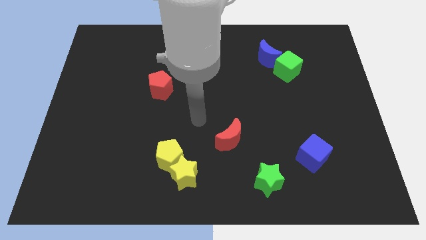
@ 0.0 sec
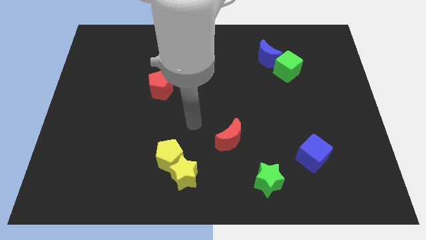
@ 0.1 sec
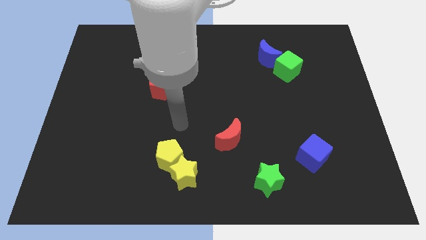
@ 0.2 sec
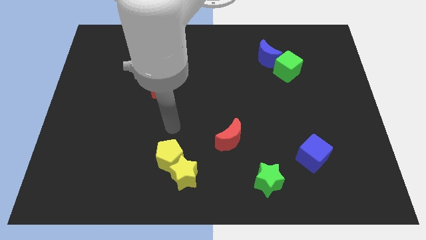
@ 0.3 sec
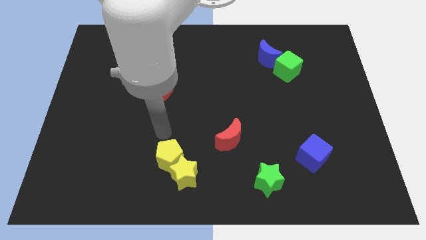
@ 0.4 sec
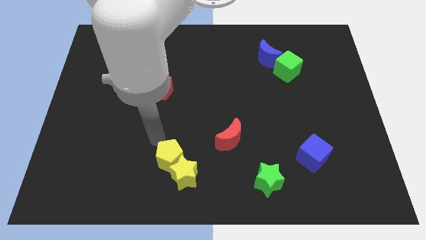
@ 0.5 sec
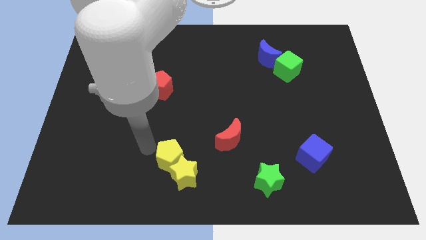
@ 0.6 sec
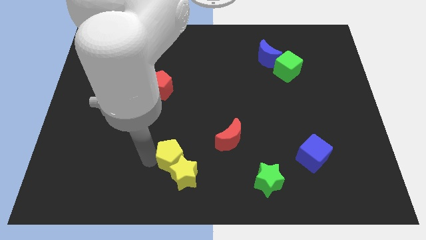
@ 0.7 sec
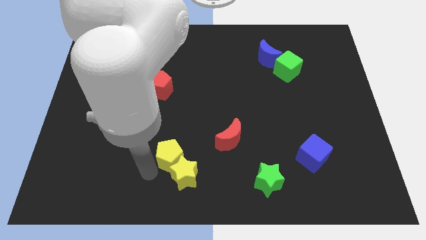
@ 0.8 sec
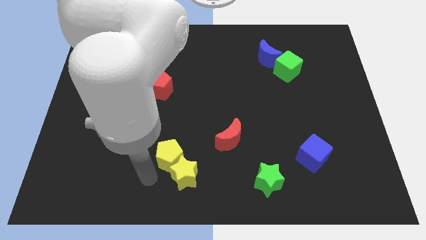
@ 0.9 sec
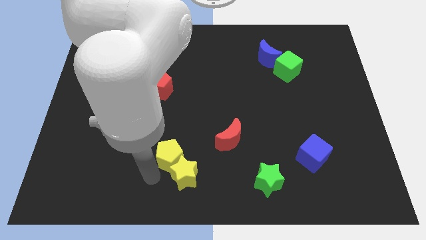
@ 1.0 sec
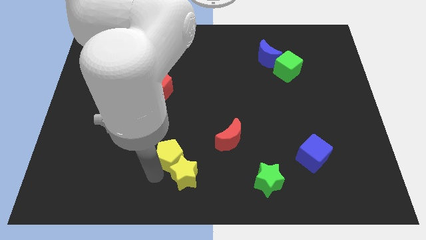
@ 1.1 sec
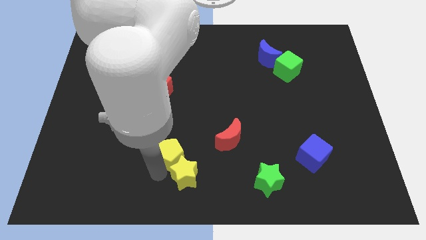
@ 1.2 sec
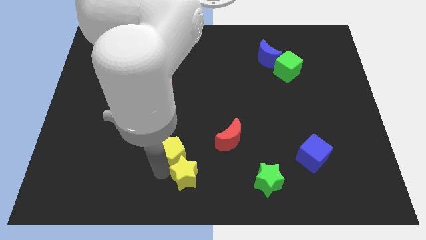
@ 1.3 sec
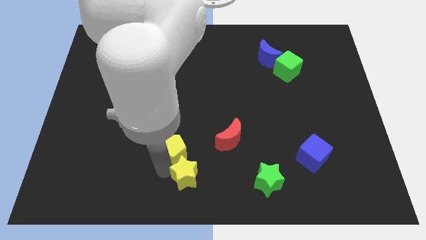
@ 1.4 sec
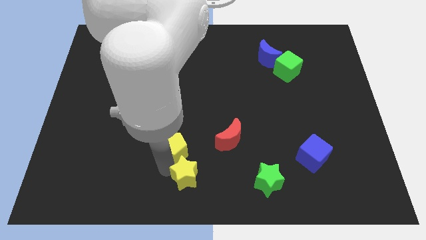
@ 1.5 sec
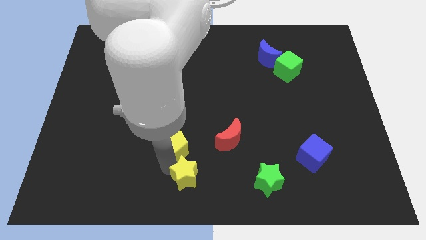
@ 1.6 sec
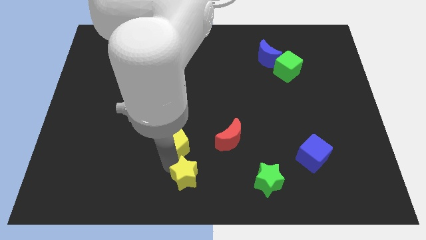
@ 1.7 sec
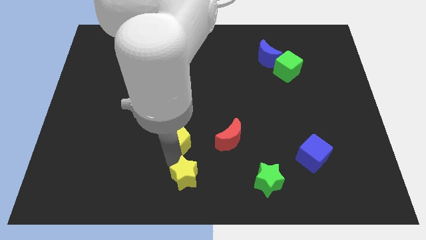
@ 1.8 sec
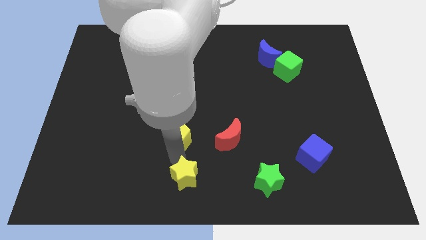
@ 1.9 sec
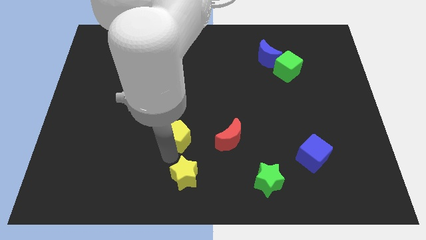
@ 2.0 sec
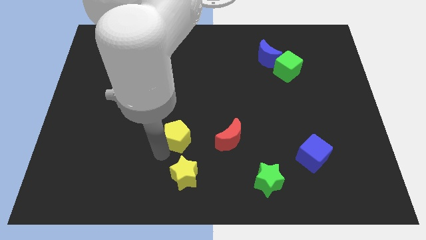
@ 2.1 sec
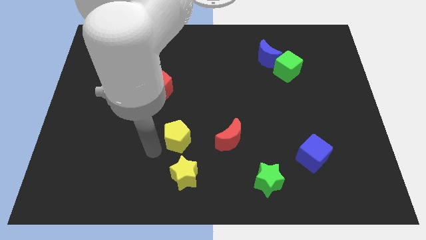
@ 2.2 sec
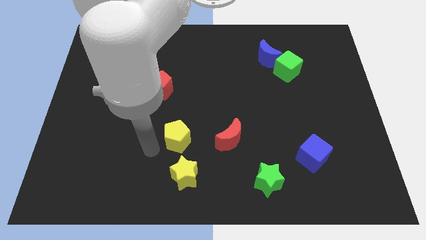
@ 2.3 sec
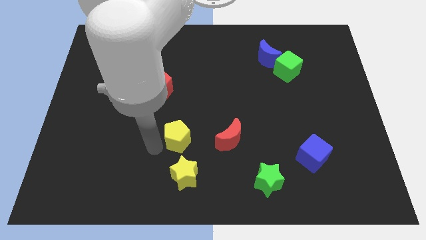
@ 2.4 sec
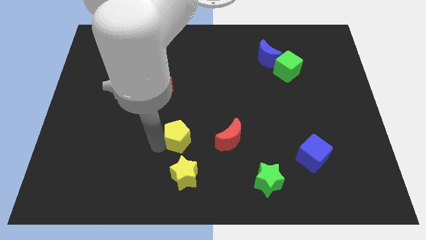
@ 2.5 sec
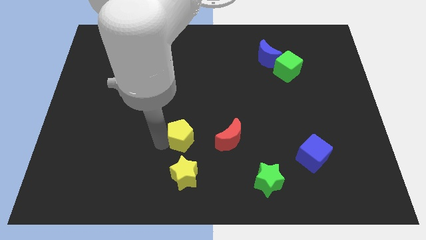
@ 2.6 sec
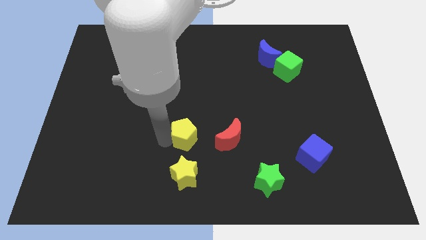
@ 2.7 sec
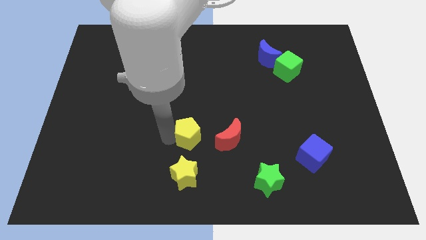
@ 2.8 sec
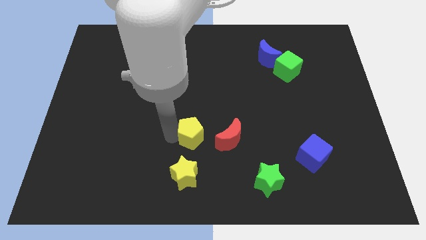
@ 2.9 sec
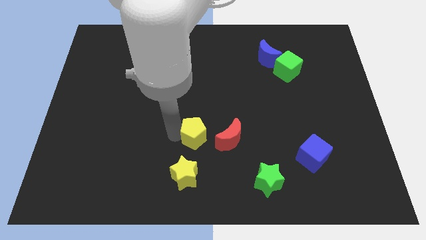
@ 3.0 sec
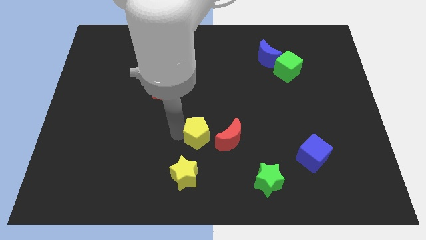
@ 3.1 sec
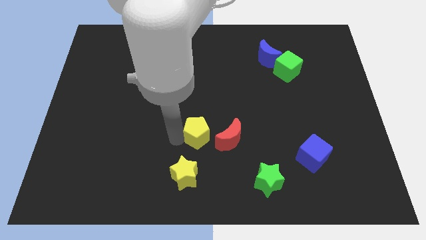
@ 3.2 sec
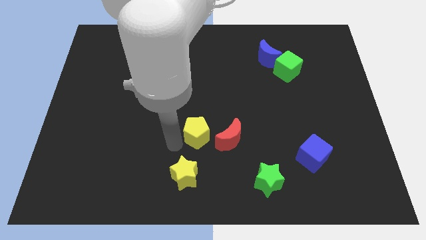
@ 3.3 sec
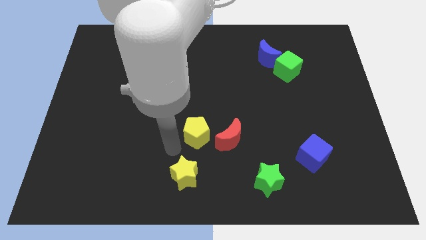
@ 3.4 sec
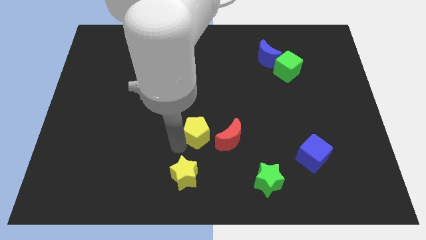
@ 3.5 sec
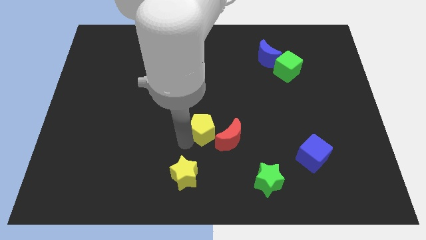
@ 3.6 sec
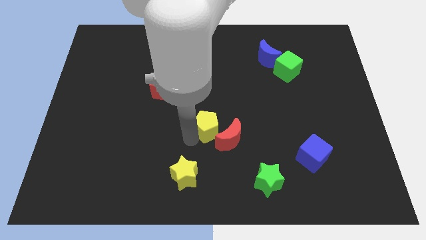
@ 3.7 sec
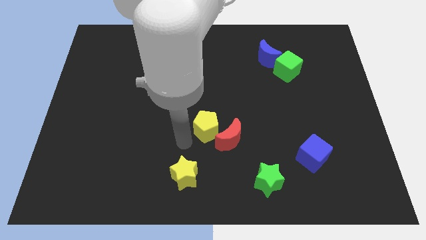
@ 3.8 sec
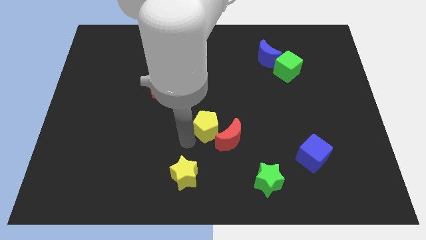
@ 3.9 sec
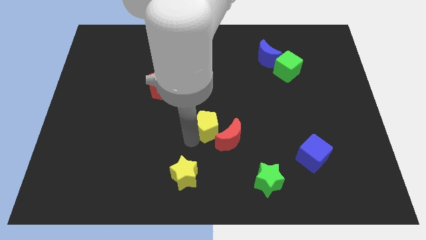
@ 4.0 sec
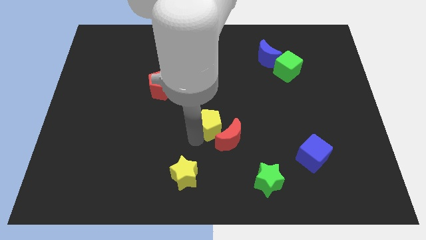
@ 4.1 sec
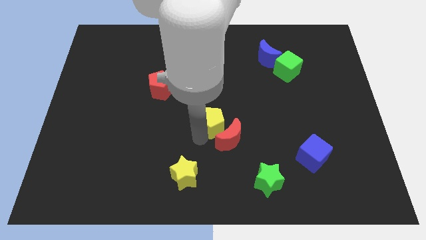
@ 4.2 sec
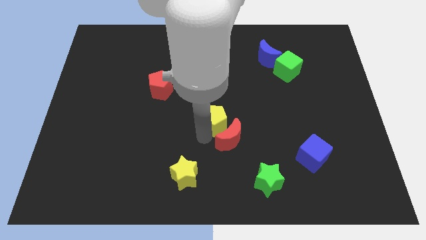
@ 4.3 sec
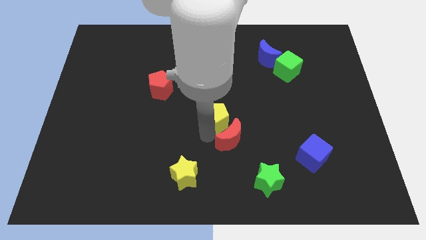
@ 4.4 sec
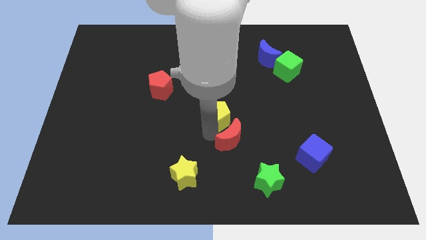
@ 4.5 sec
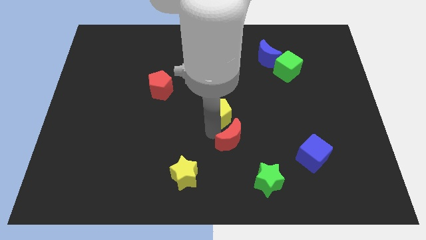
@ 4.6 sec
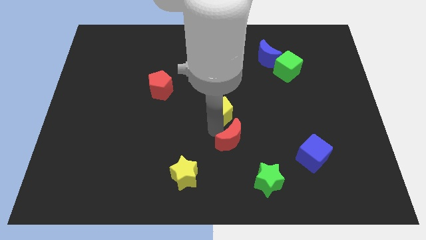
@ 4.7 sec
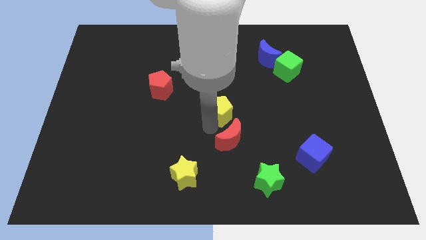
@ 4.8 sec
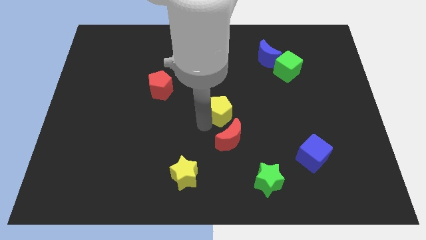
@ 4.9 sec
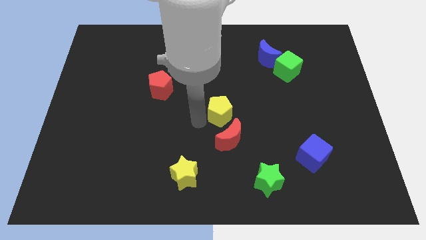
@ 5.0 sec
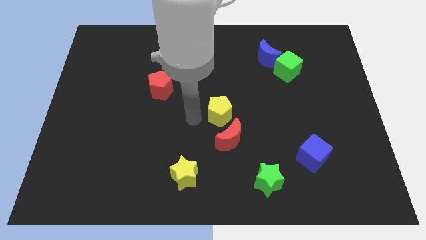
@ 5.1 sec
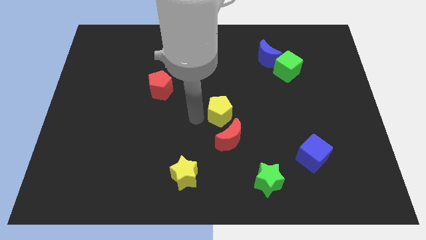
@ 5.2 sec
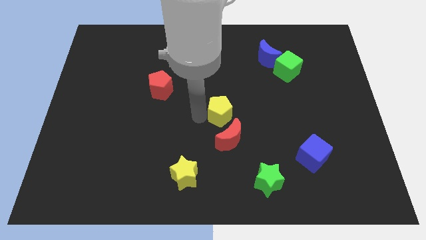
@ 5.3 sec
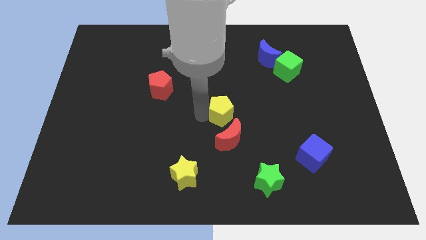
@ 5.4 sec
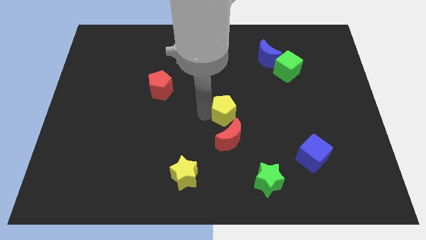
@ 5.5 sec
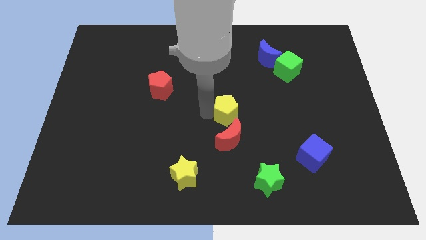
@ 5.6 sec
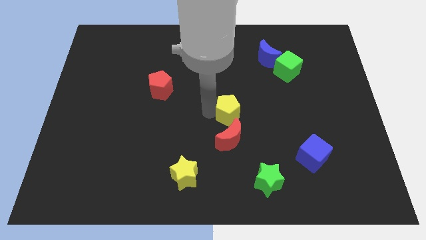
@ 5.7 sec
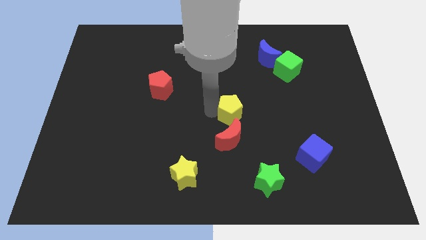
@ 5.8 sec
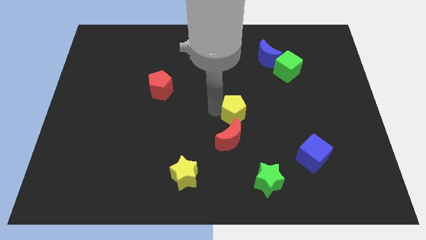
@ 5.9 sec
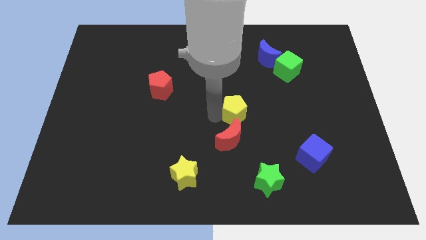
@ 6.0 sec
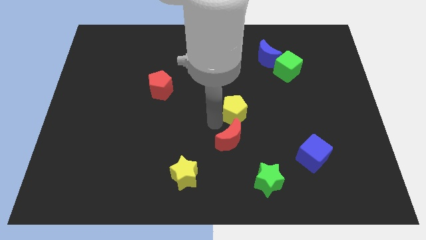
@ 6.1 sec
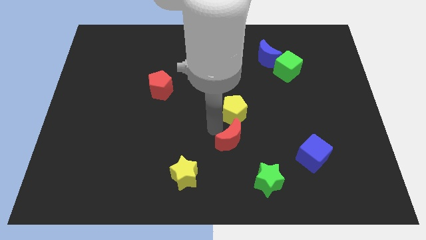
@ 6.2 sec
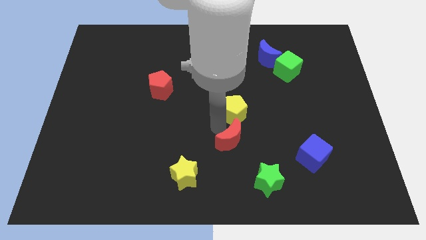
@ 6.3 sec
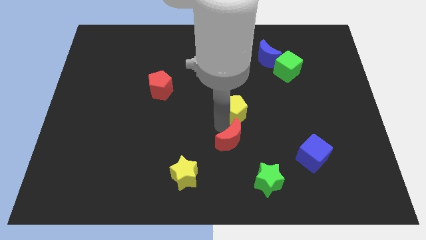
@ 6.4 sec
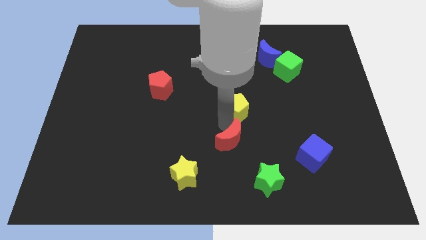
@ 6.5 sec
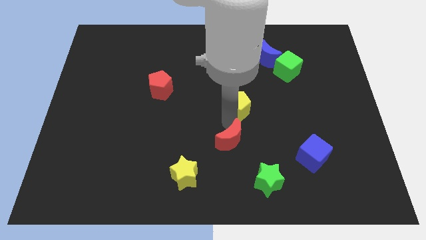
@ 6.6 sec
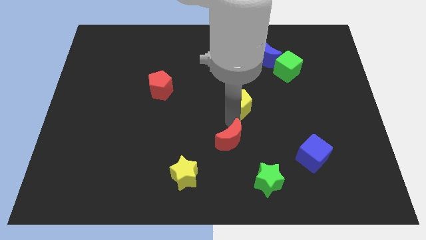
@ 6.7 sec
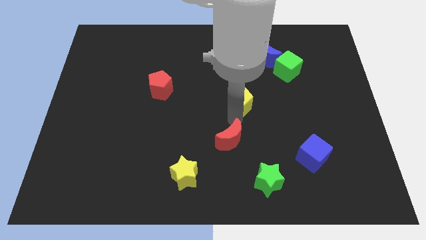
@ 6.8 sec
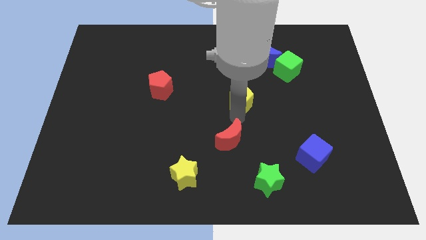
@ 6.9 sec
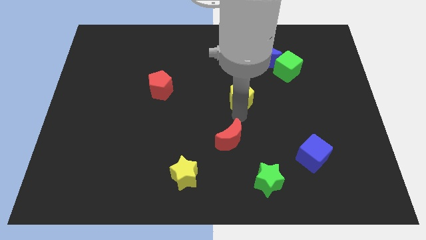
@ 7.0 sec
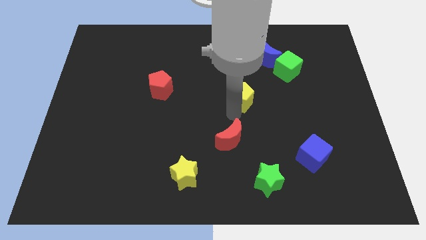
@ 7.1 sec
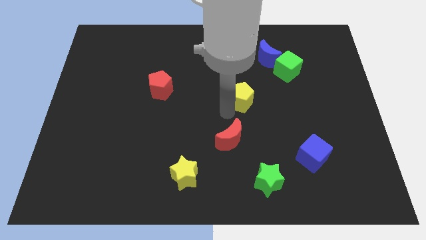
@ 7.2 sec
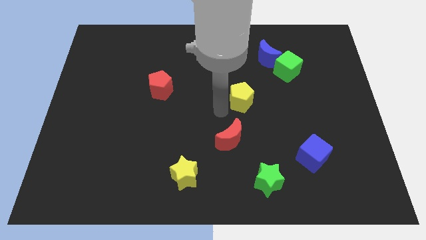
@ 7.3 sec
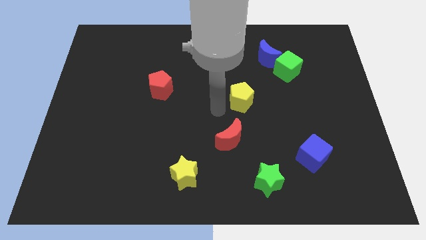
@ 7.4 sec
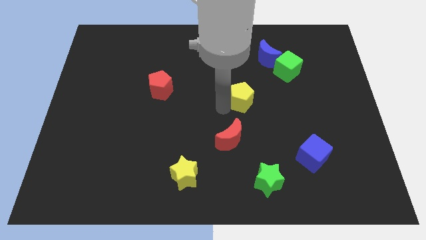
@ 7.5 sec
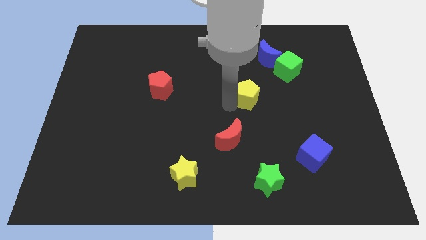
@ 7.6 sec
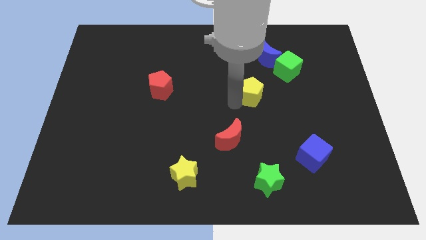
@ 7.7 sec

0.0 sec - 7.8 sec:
move the yellow pentagon to the bottom left of the green cube
